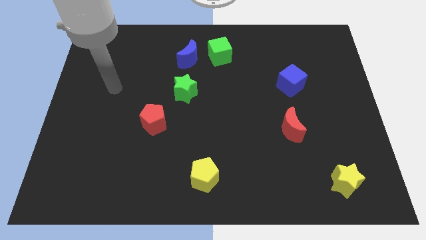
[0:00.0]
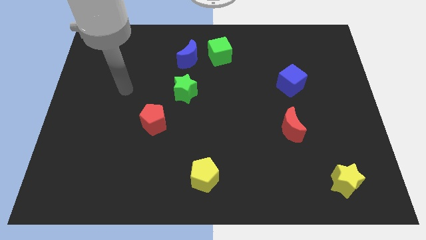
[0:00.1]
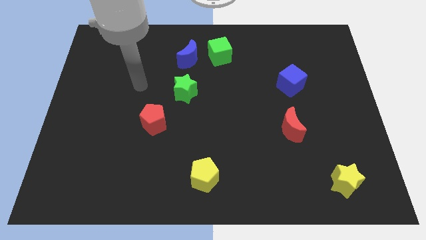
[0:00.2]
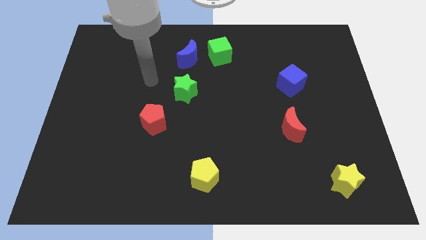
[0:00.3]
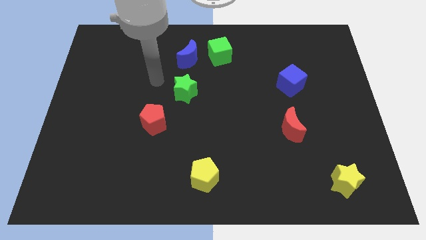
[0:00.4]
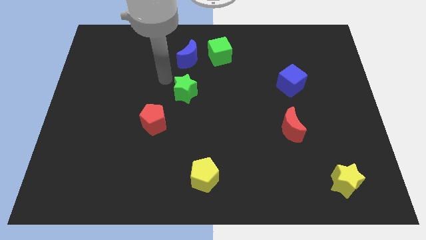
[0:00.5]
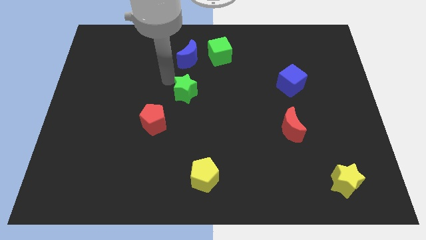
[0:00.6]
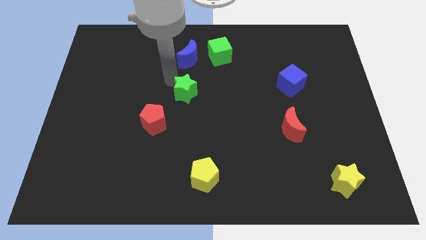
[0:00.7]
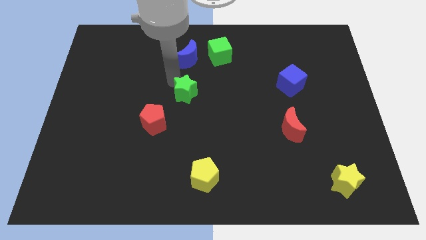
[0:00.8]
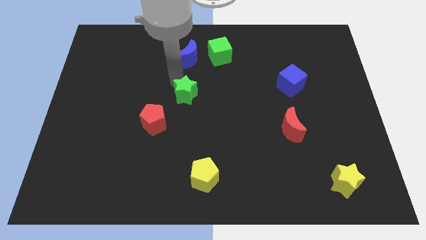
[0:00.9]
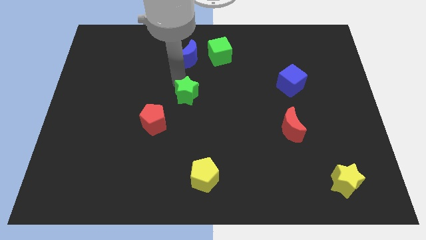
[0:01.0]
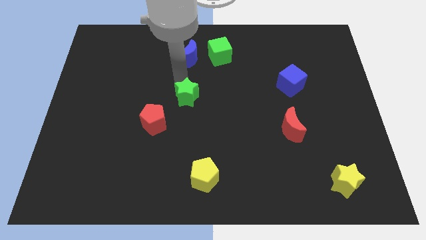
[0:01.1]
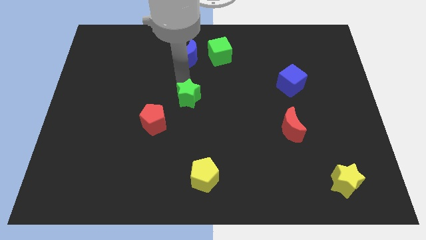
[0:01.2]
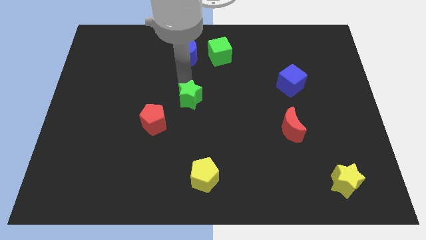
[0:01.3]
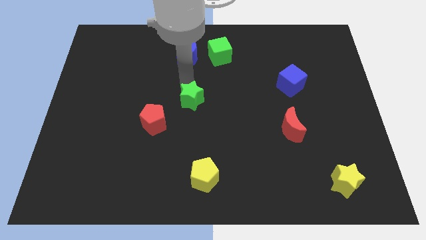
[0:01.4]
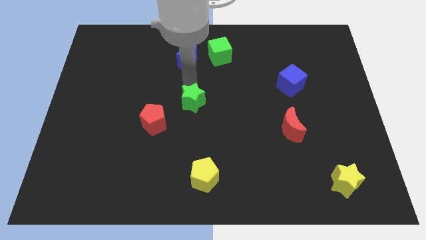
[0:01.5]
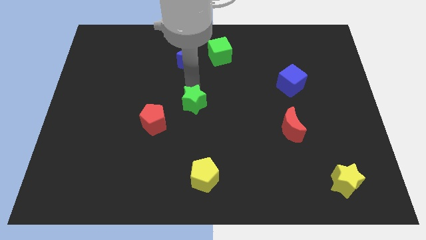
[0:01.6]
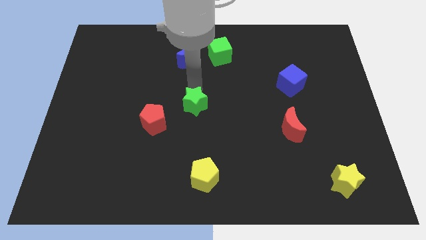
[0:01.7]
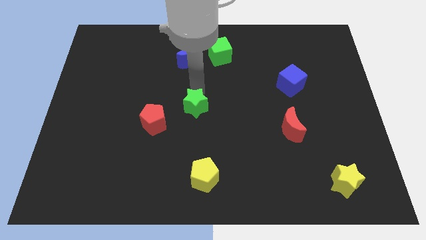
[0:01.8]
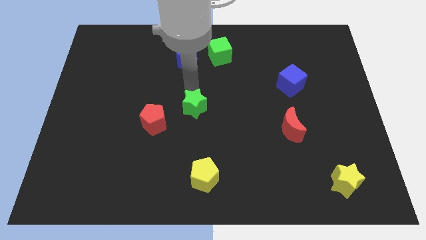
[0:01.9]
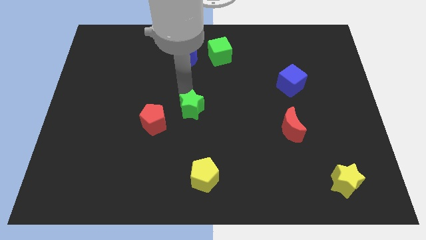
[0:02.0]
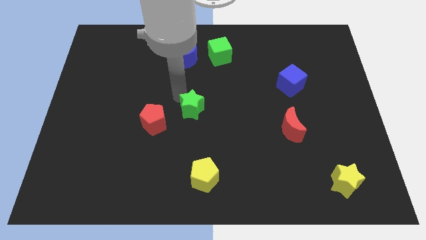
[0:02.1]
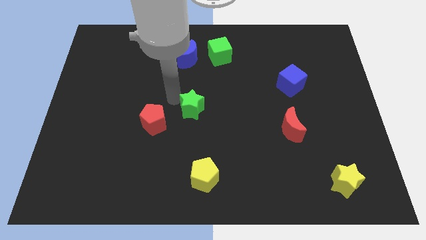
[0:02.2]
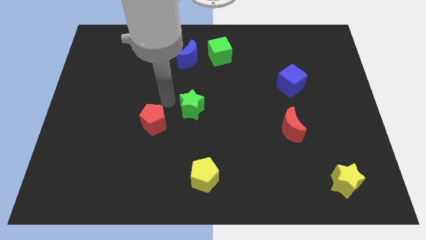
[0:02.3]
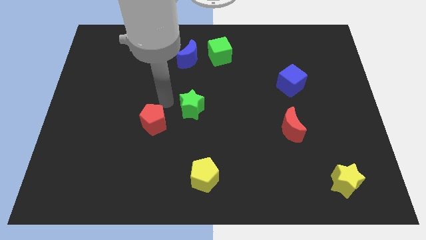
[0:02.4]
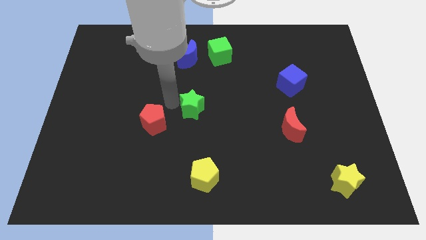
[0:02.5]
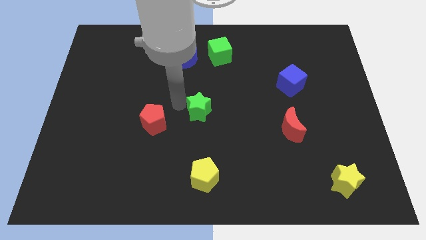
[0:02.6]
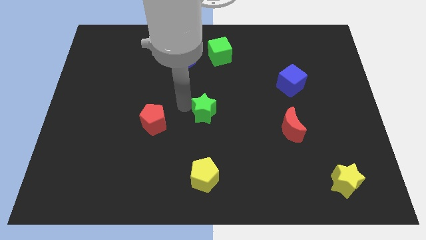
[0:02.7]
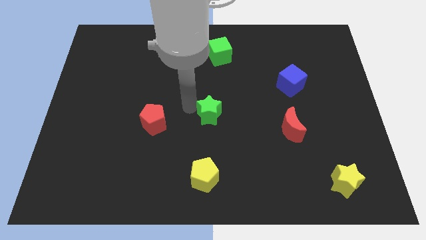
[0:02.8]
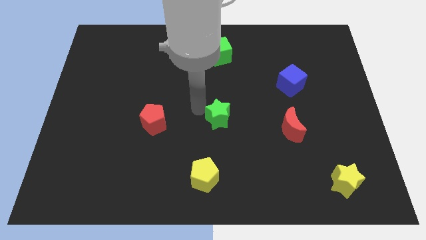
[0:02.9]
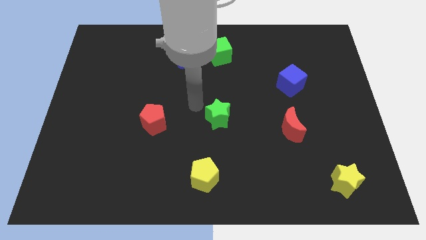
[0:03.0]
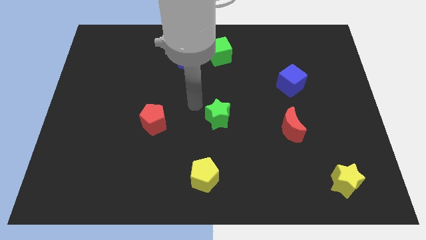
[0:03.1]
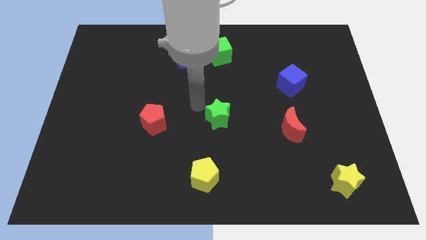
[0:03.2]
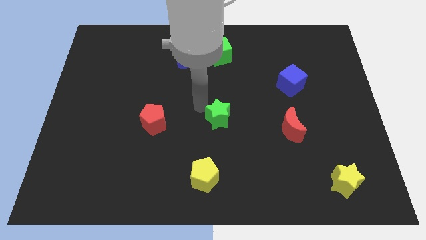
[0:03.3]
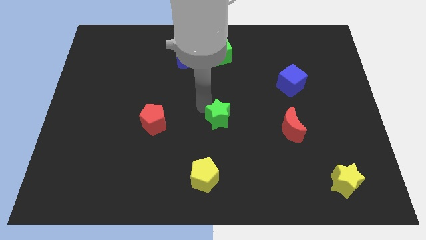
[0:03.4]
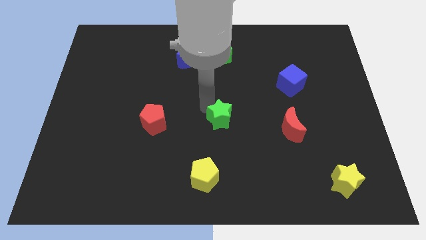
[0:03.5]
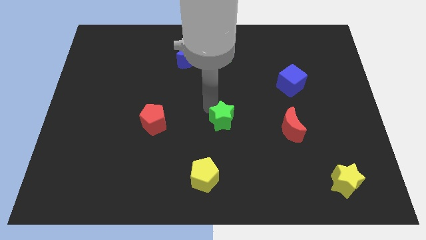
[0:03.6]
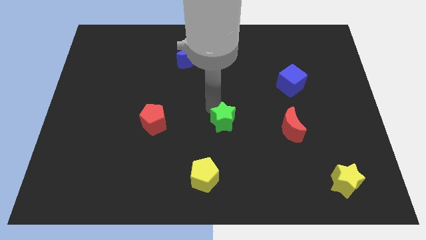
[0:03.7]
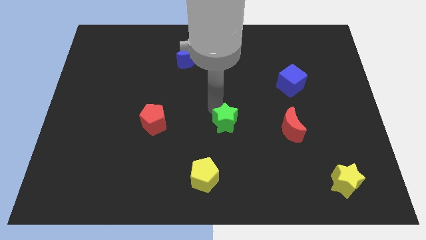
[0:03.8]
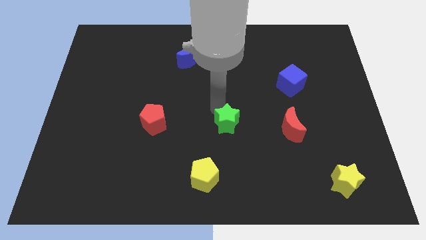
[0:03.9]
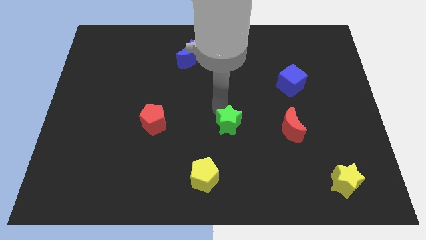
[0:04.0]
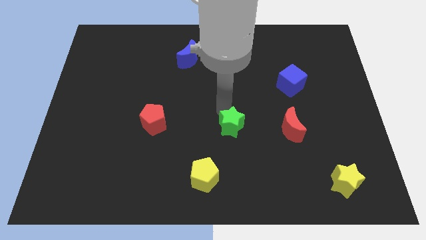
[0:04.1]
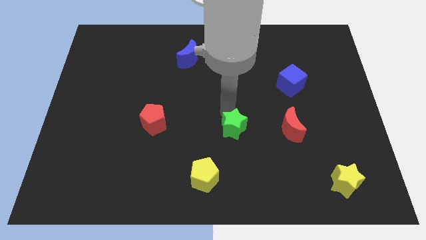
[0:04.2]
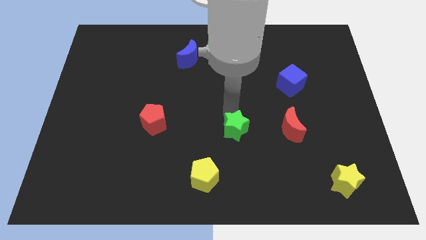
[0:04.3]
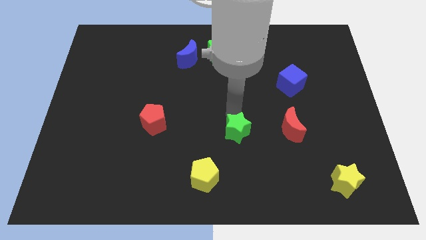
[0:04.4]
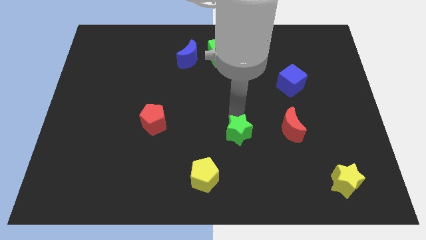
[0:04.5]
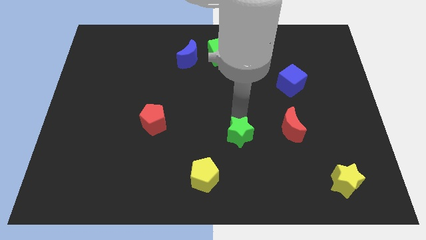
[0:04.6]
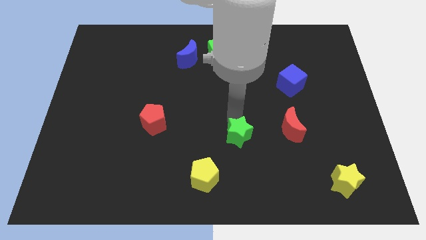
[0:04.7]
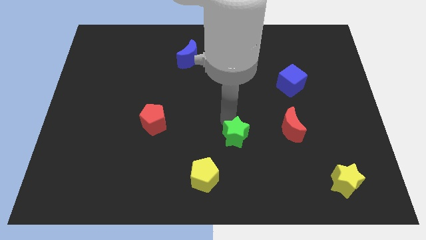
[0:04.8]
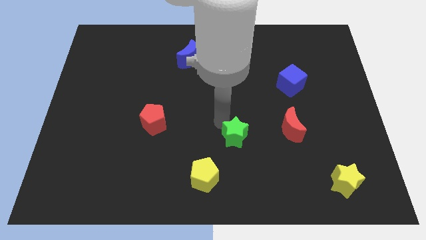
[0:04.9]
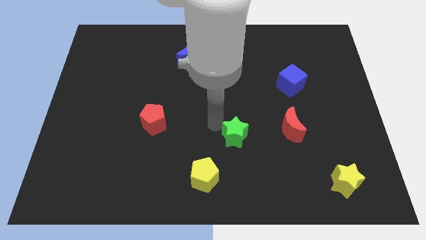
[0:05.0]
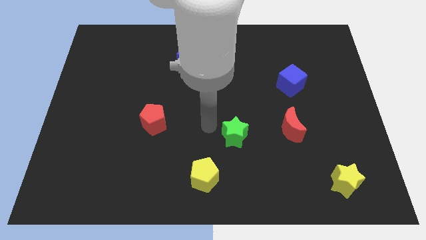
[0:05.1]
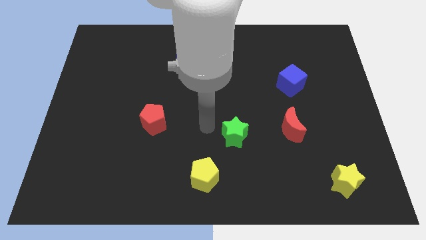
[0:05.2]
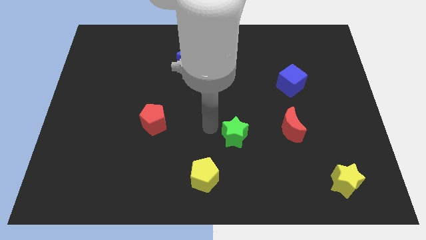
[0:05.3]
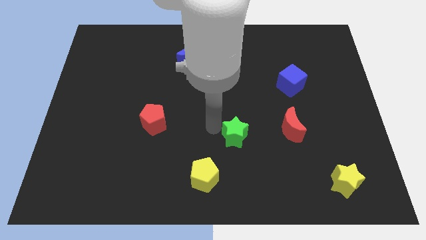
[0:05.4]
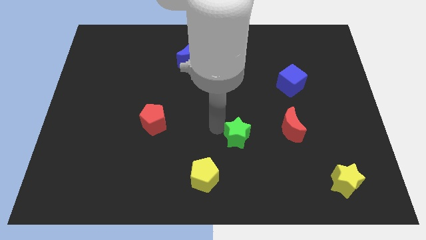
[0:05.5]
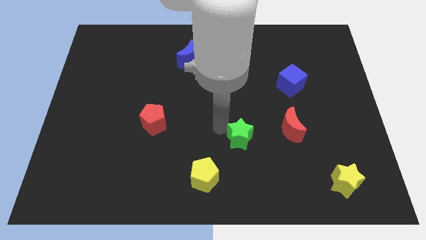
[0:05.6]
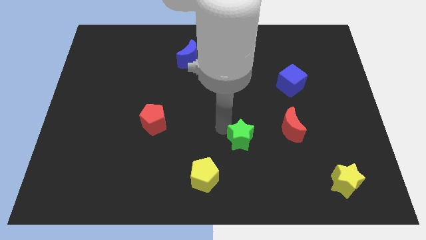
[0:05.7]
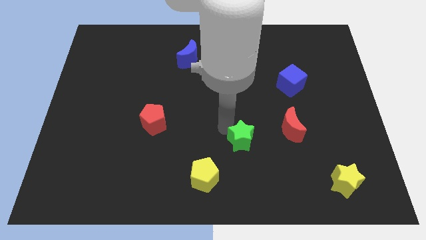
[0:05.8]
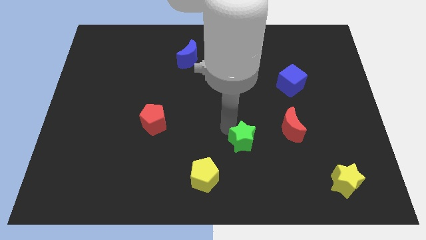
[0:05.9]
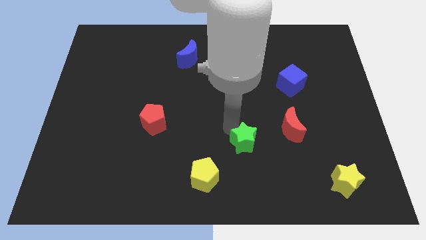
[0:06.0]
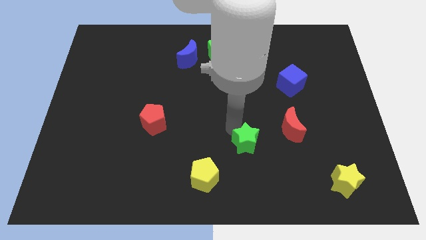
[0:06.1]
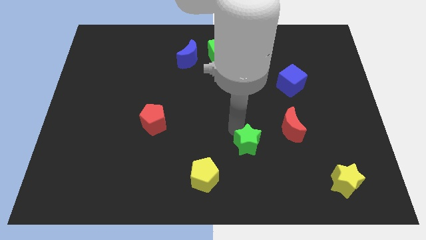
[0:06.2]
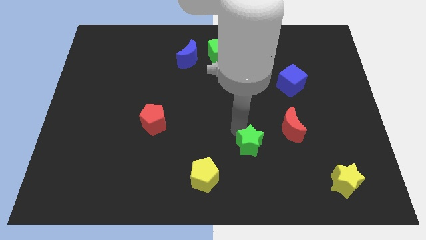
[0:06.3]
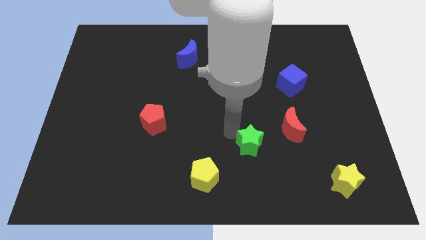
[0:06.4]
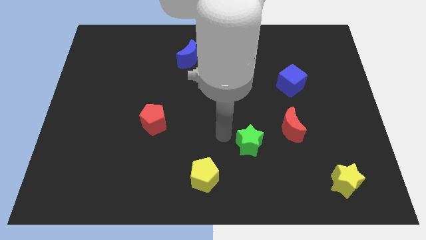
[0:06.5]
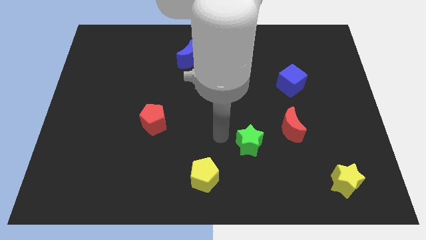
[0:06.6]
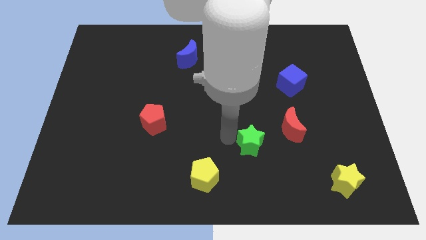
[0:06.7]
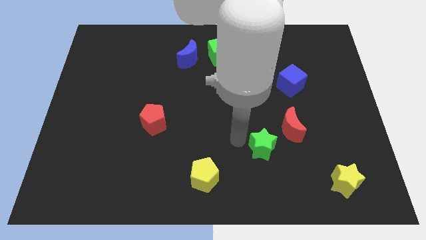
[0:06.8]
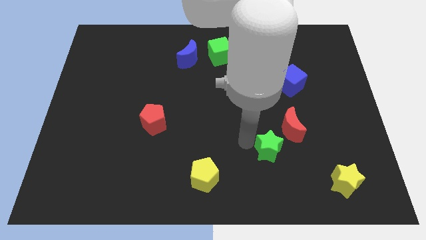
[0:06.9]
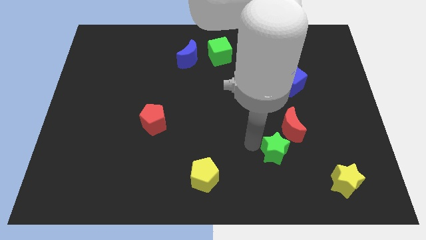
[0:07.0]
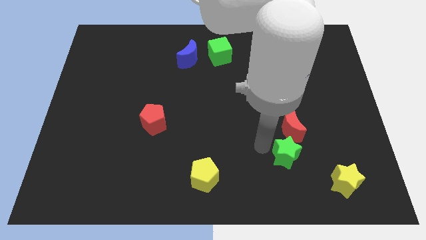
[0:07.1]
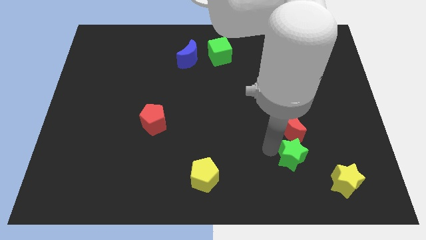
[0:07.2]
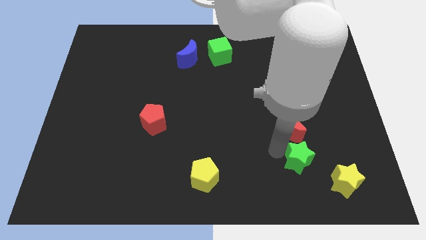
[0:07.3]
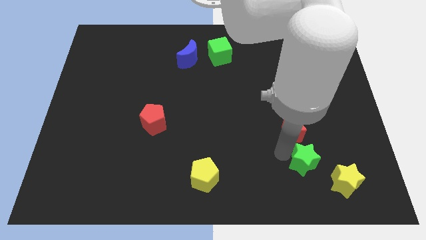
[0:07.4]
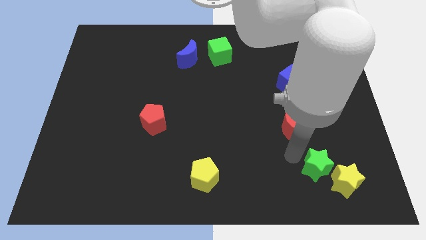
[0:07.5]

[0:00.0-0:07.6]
put the green star next to the yellow star

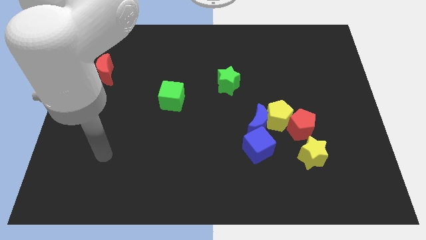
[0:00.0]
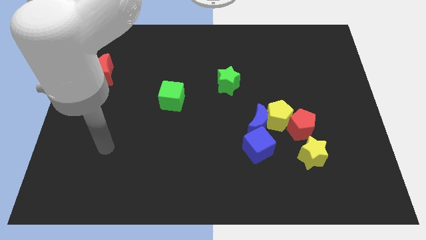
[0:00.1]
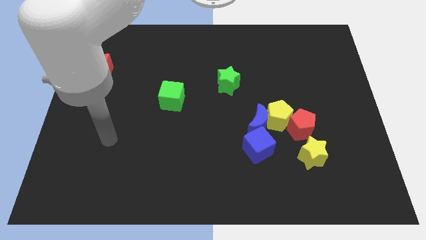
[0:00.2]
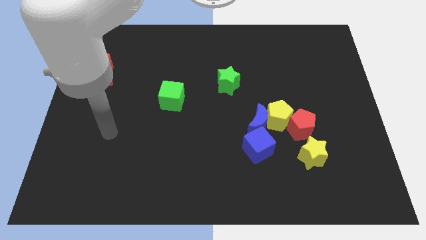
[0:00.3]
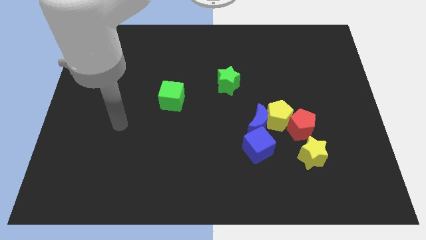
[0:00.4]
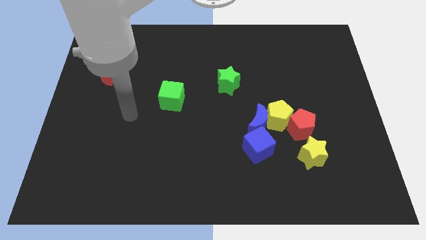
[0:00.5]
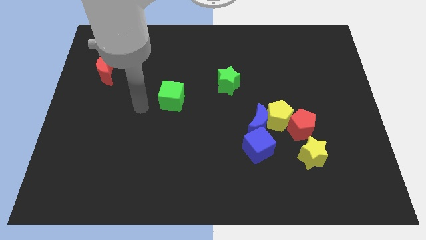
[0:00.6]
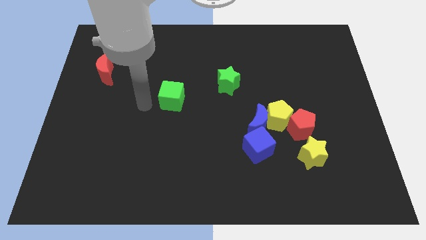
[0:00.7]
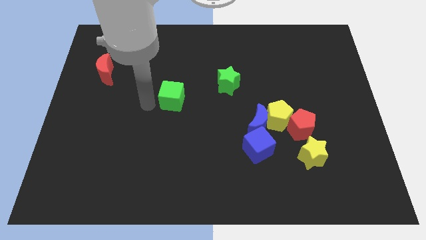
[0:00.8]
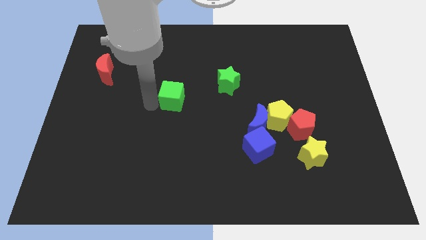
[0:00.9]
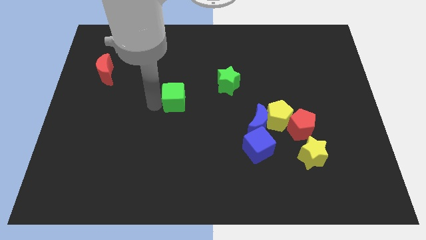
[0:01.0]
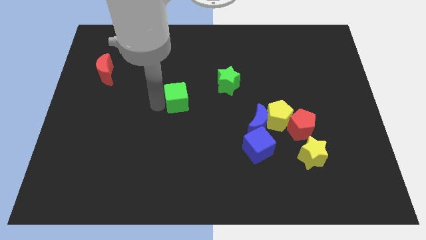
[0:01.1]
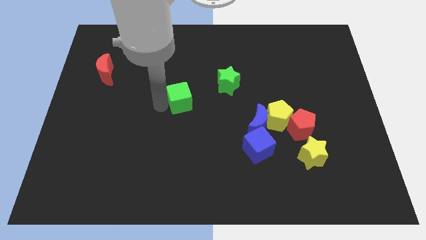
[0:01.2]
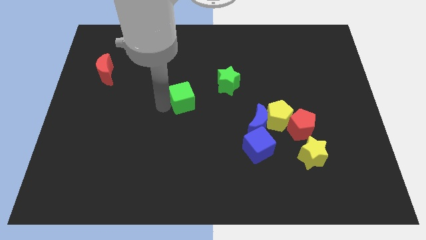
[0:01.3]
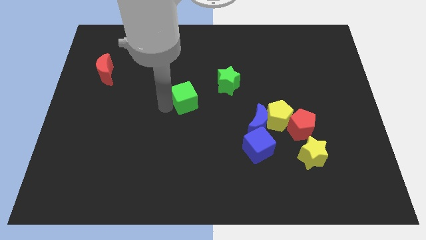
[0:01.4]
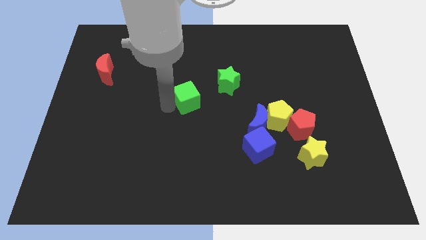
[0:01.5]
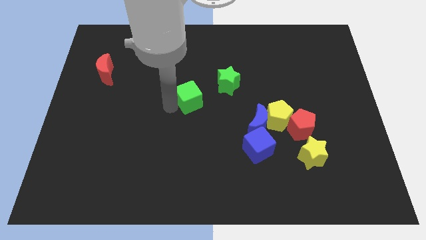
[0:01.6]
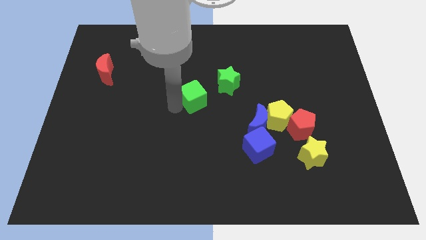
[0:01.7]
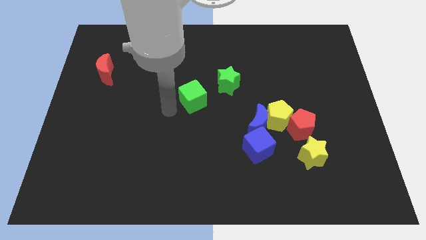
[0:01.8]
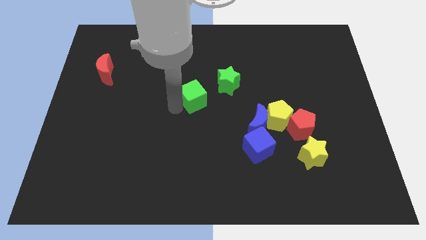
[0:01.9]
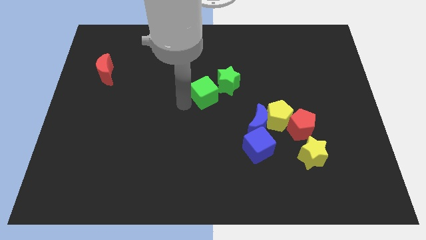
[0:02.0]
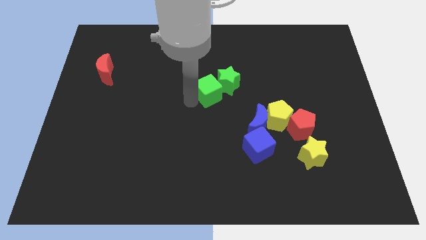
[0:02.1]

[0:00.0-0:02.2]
move the green cube close to the green star
